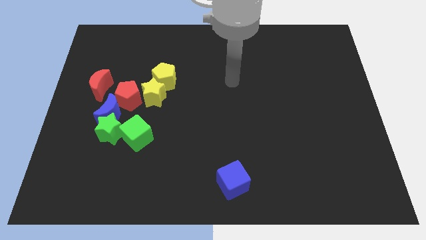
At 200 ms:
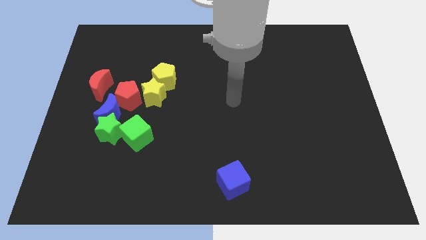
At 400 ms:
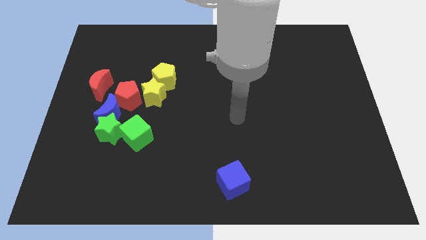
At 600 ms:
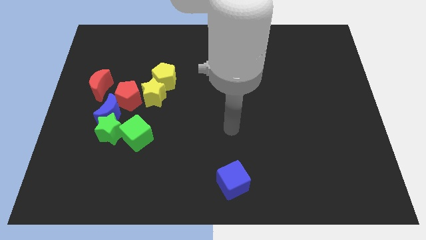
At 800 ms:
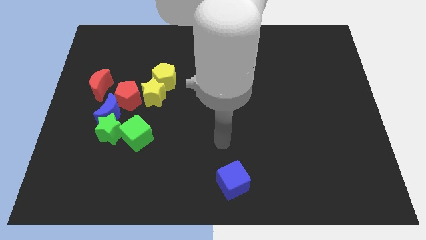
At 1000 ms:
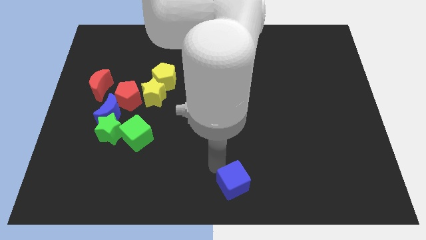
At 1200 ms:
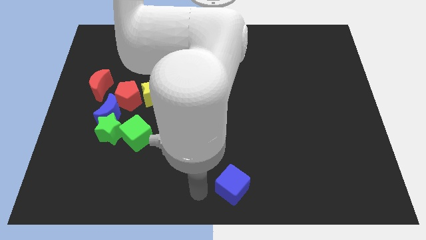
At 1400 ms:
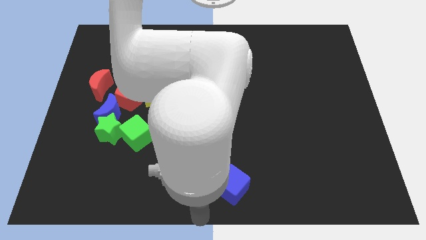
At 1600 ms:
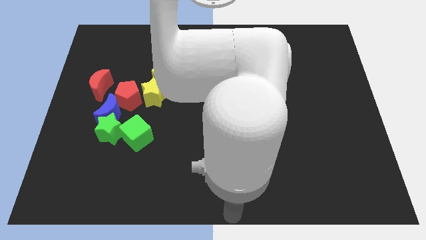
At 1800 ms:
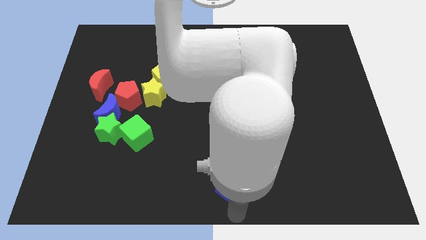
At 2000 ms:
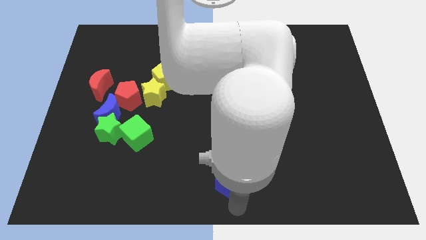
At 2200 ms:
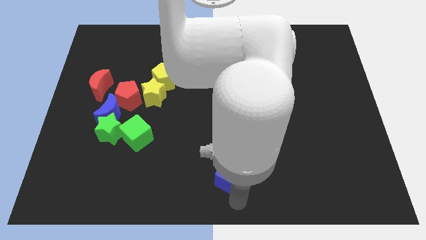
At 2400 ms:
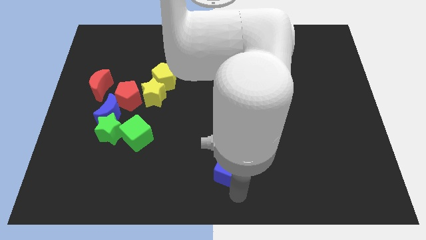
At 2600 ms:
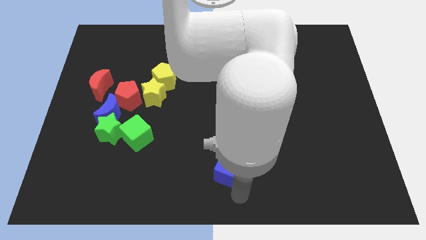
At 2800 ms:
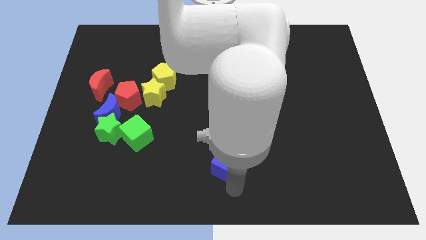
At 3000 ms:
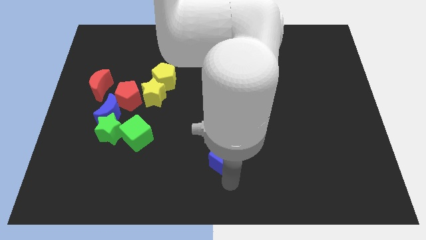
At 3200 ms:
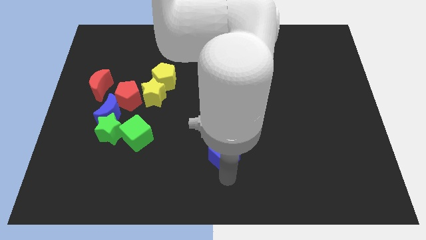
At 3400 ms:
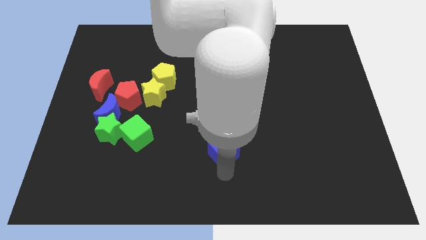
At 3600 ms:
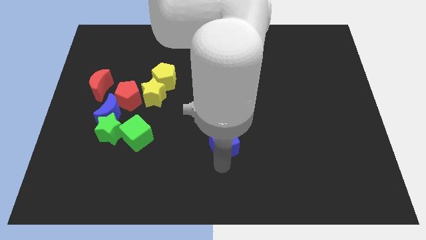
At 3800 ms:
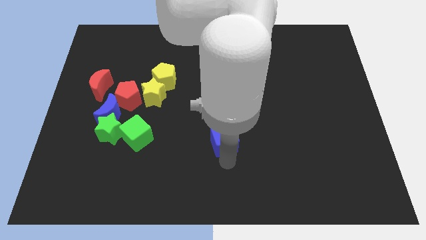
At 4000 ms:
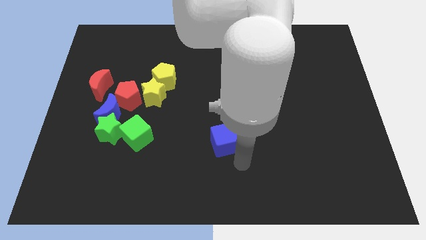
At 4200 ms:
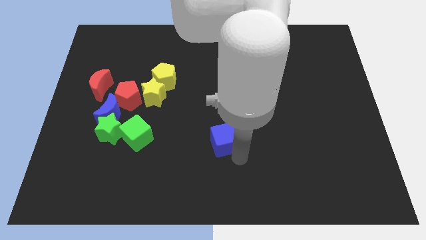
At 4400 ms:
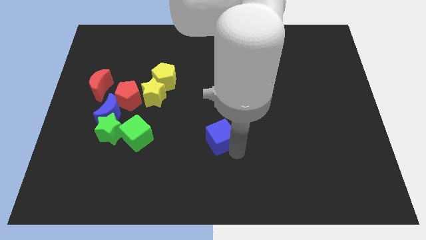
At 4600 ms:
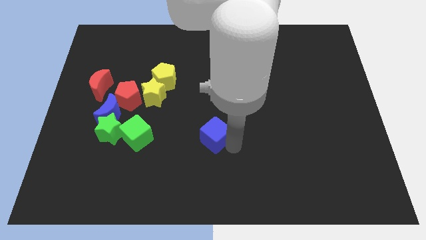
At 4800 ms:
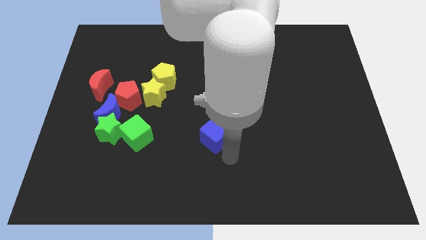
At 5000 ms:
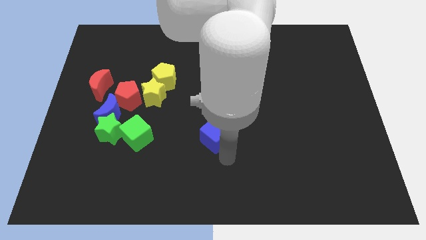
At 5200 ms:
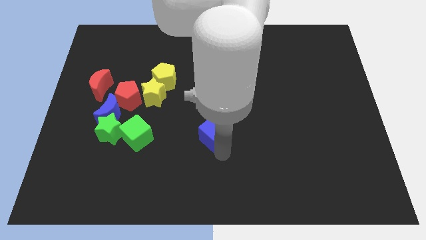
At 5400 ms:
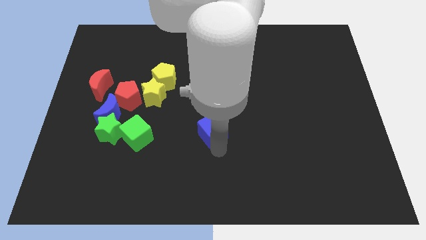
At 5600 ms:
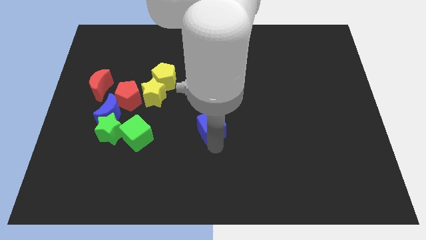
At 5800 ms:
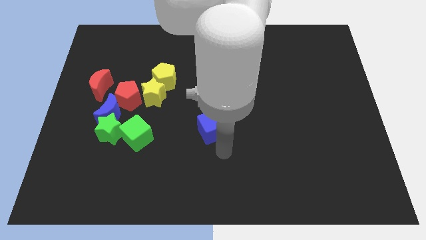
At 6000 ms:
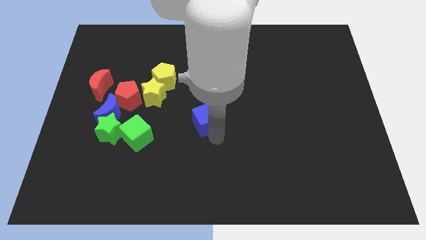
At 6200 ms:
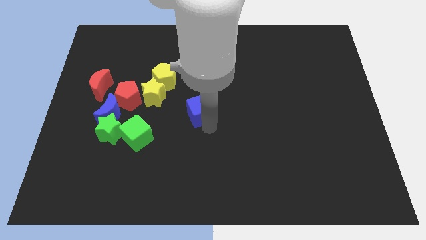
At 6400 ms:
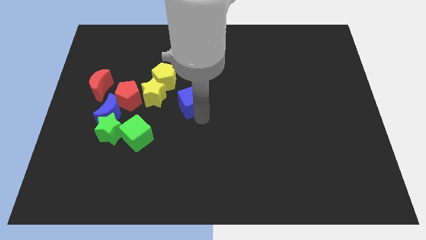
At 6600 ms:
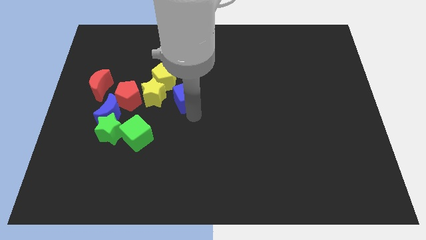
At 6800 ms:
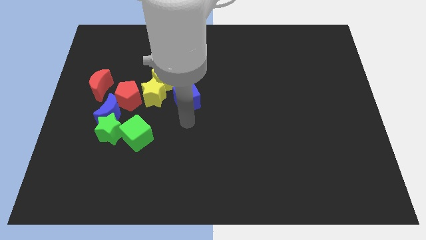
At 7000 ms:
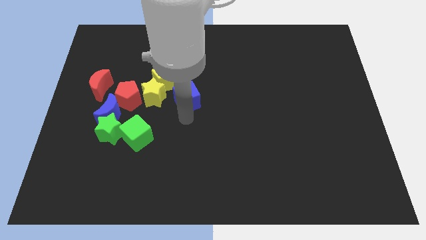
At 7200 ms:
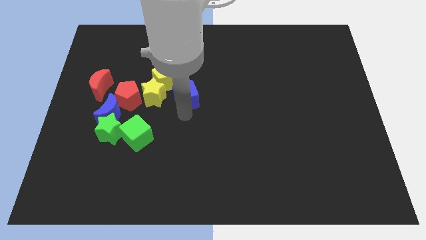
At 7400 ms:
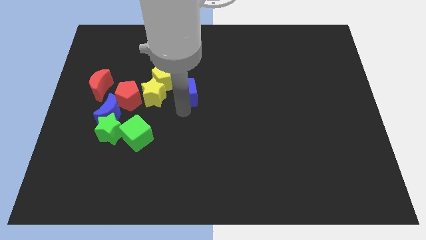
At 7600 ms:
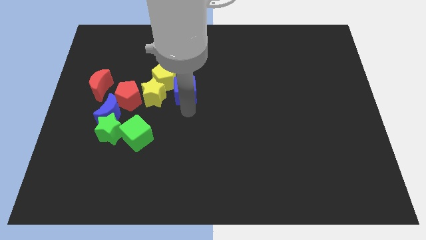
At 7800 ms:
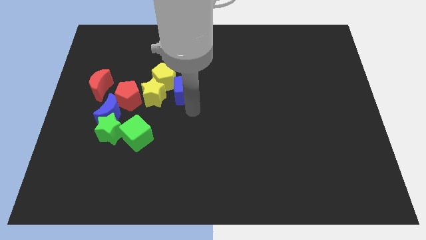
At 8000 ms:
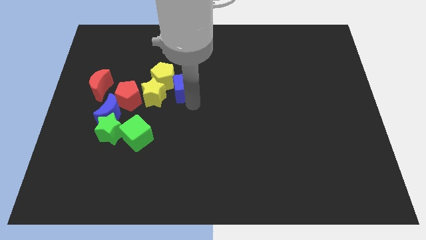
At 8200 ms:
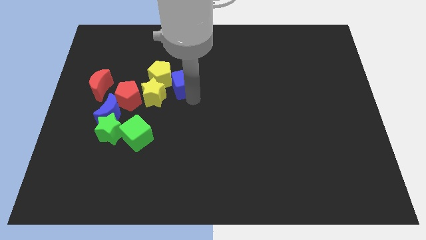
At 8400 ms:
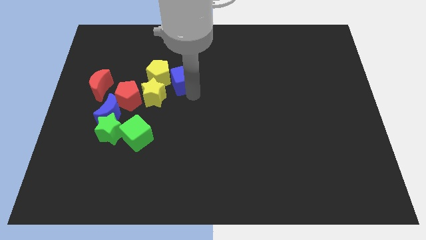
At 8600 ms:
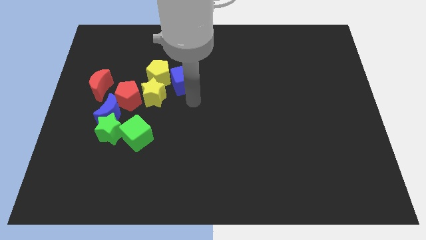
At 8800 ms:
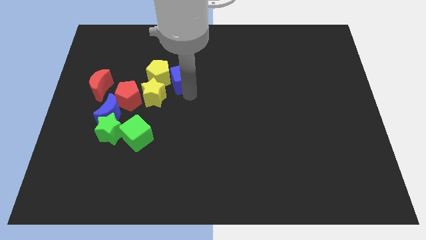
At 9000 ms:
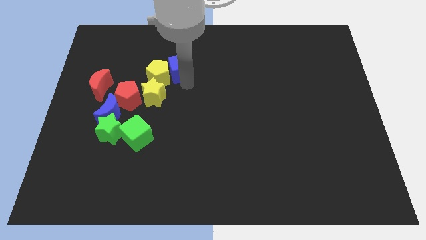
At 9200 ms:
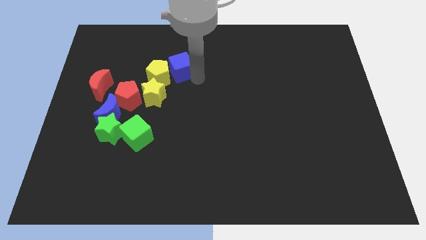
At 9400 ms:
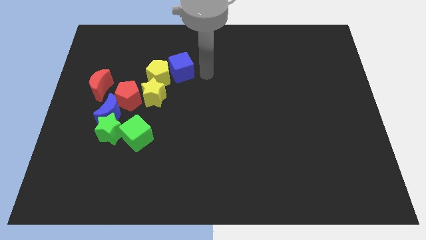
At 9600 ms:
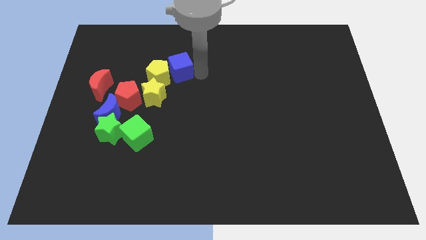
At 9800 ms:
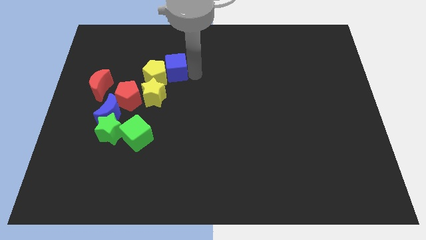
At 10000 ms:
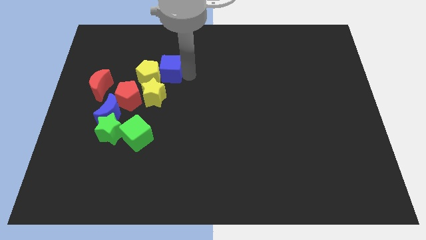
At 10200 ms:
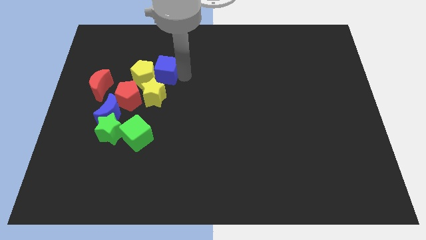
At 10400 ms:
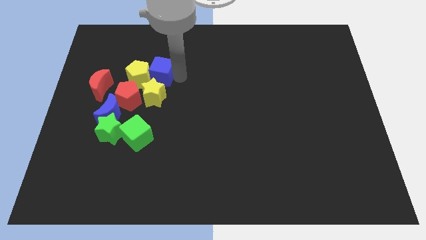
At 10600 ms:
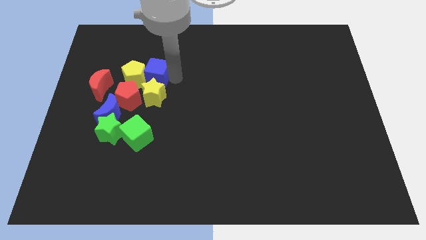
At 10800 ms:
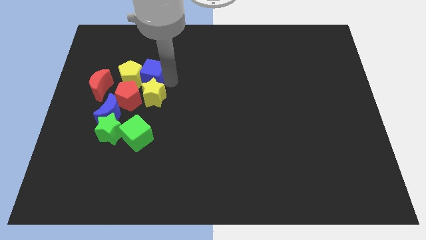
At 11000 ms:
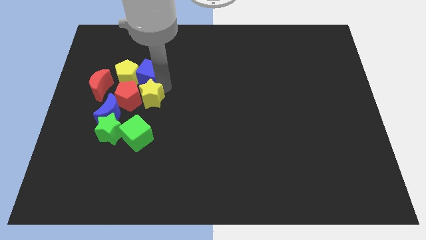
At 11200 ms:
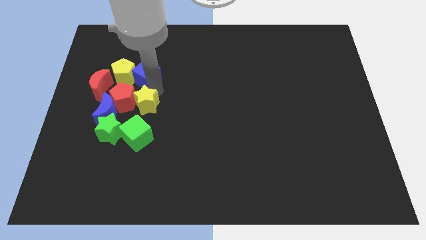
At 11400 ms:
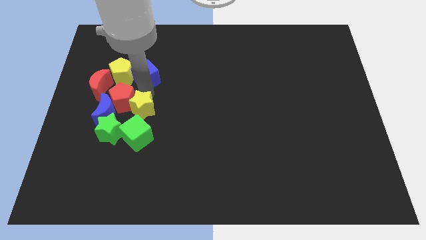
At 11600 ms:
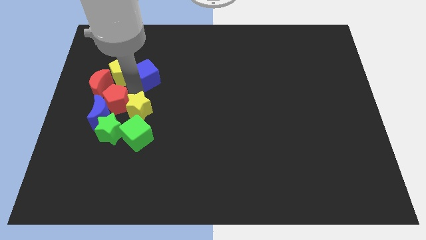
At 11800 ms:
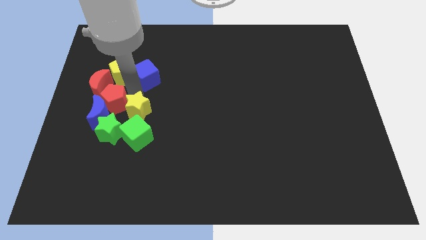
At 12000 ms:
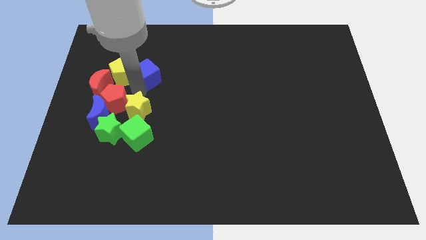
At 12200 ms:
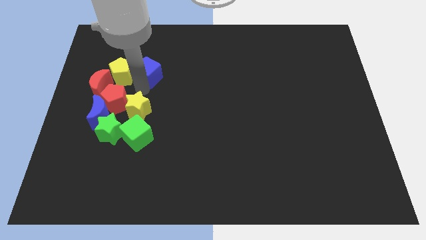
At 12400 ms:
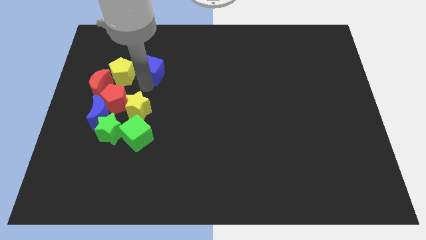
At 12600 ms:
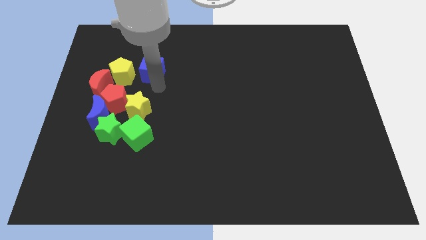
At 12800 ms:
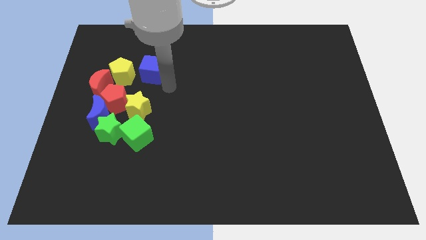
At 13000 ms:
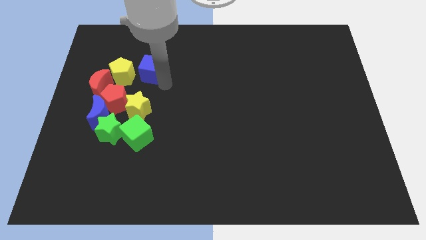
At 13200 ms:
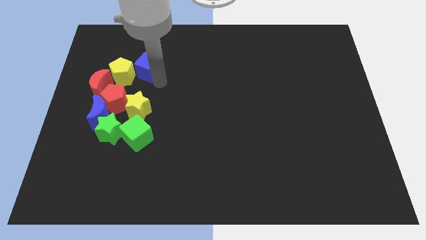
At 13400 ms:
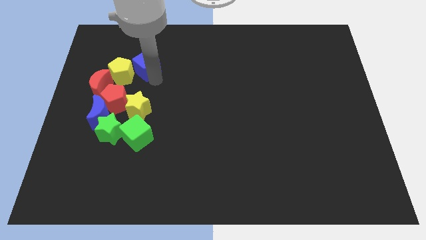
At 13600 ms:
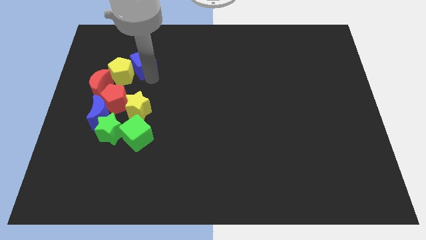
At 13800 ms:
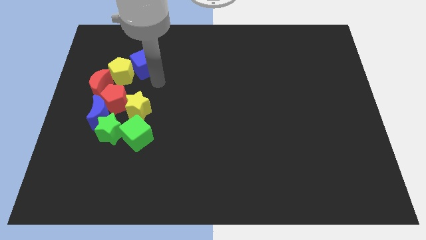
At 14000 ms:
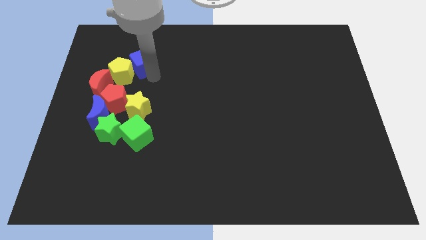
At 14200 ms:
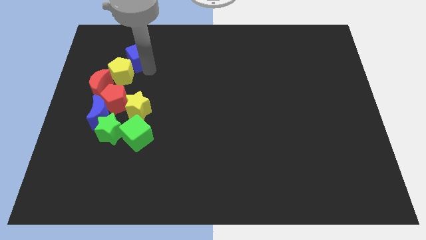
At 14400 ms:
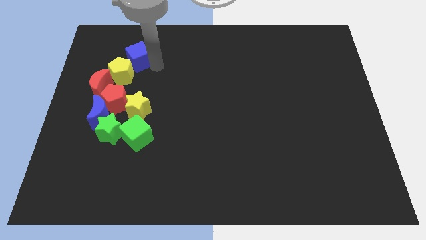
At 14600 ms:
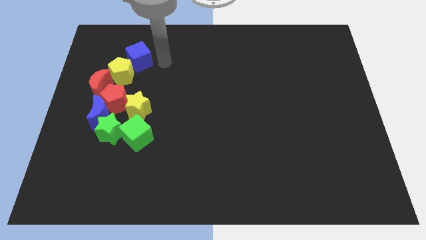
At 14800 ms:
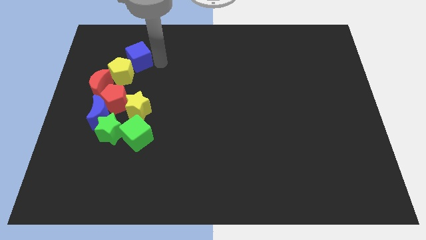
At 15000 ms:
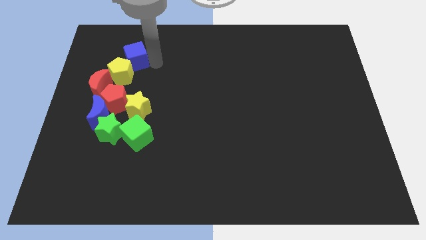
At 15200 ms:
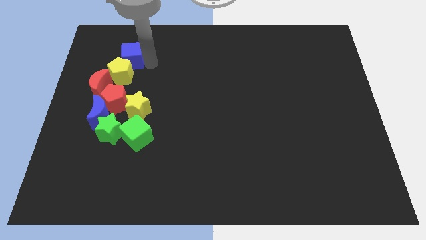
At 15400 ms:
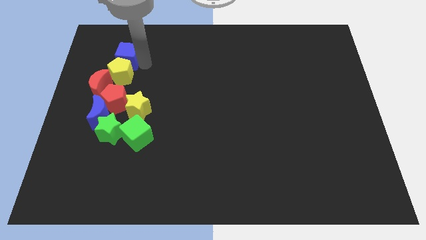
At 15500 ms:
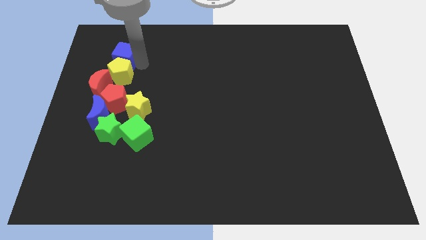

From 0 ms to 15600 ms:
put the blue cube to the top side of the red moon
